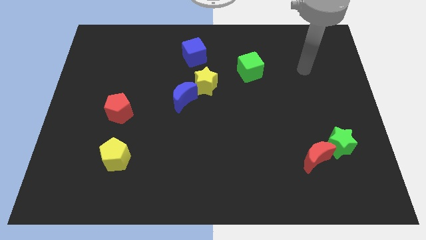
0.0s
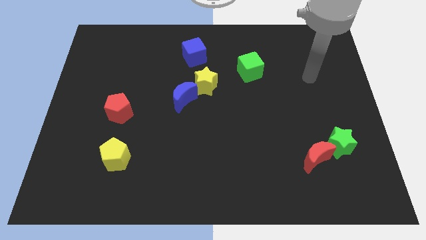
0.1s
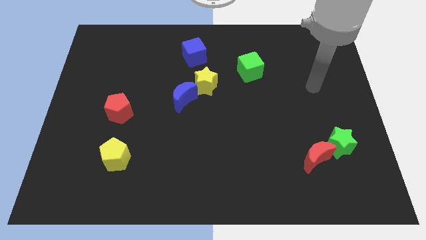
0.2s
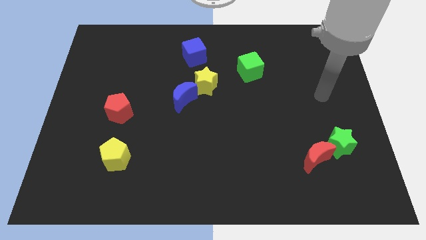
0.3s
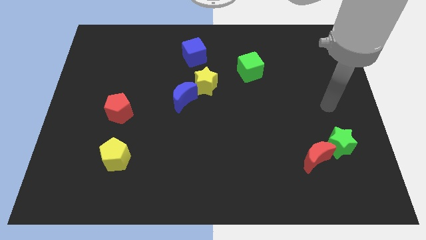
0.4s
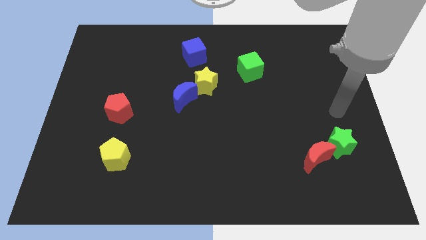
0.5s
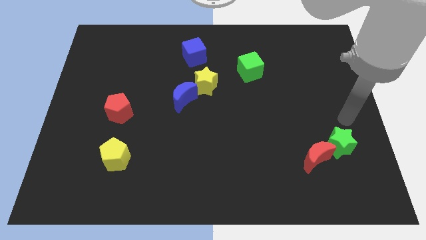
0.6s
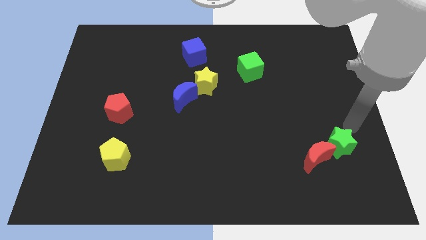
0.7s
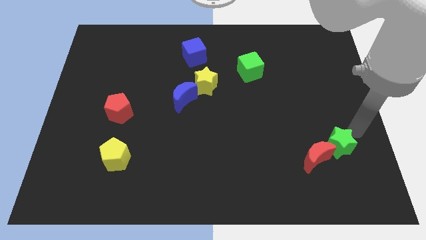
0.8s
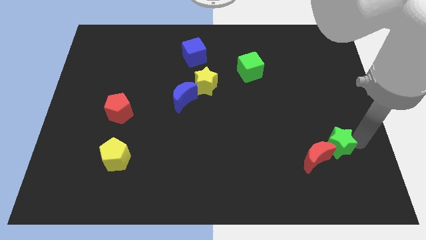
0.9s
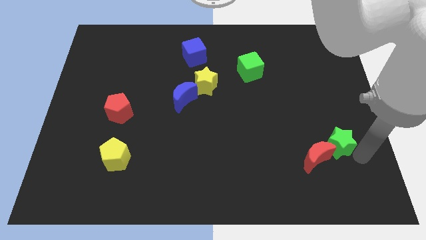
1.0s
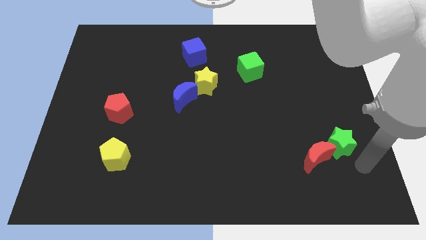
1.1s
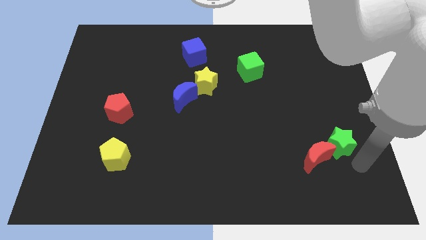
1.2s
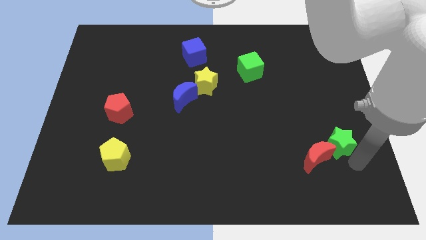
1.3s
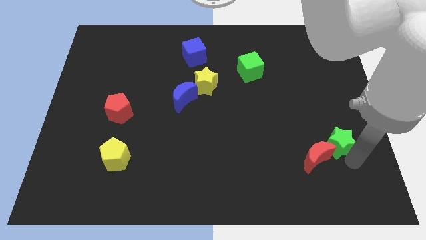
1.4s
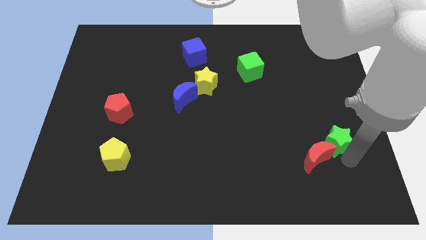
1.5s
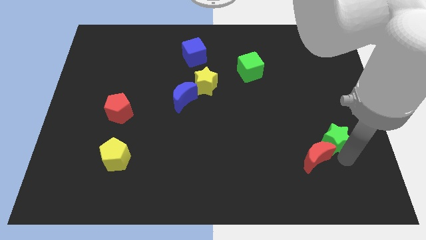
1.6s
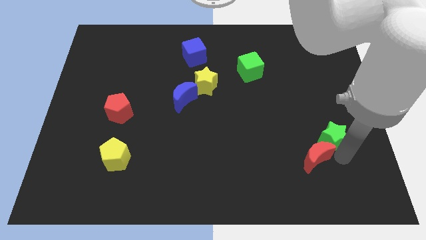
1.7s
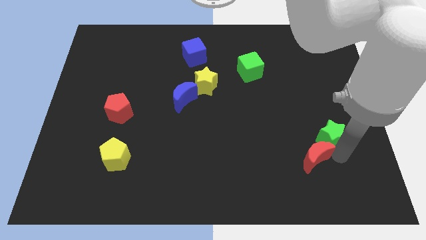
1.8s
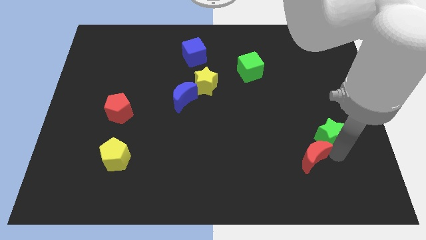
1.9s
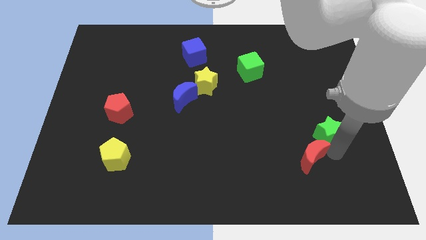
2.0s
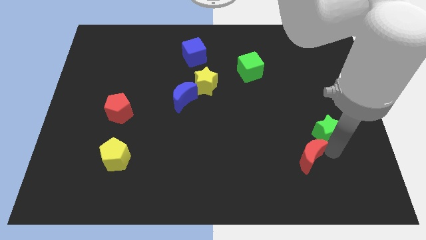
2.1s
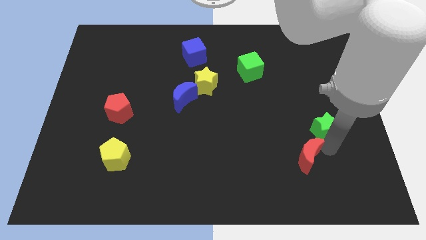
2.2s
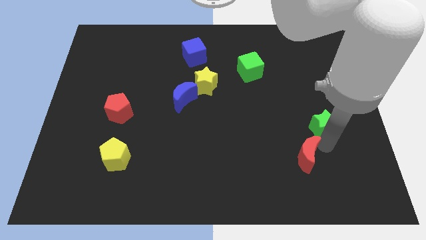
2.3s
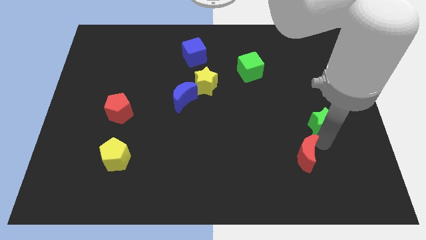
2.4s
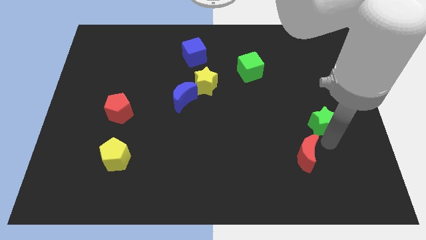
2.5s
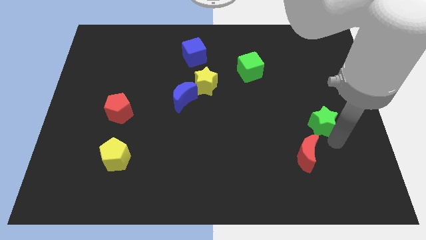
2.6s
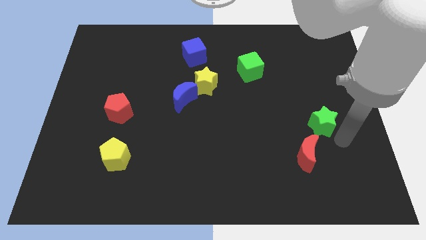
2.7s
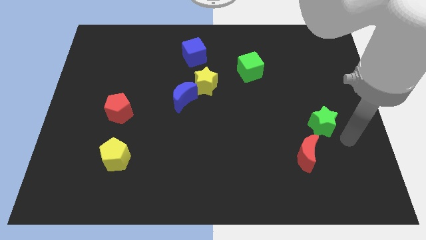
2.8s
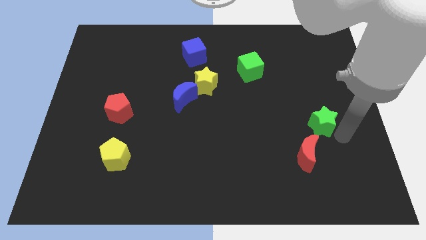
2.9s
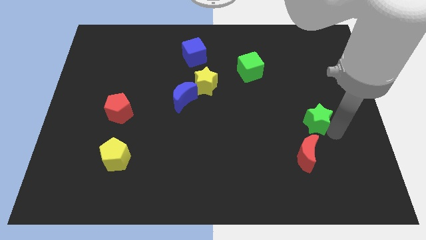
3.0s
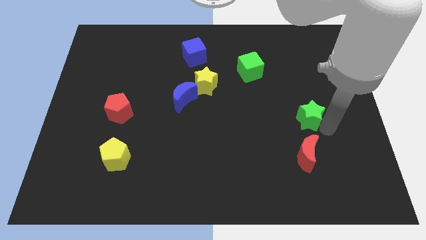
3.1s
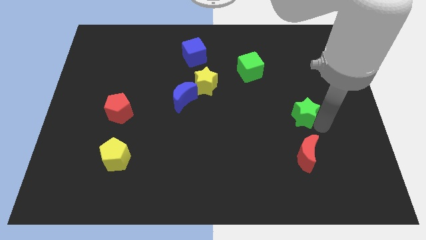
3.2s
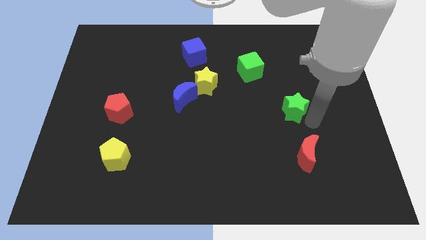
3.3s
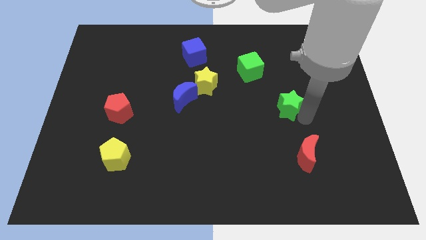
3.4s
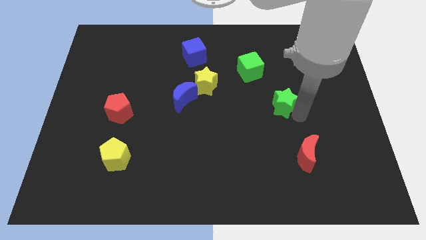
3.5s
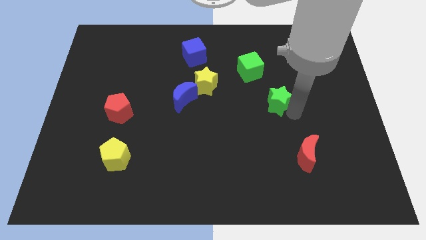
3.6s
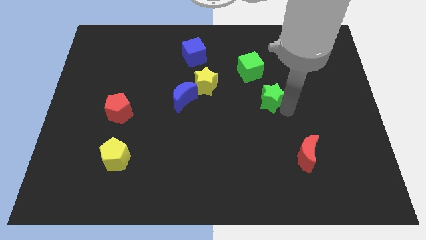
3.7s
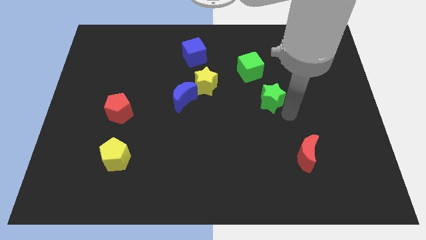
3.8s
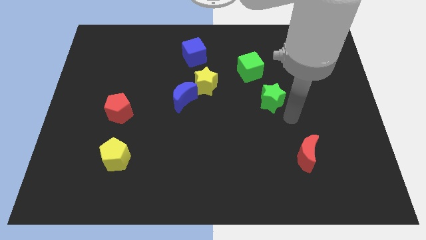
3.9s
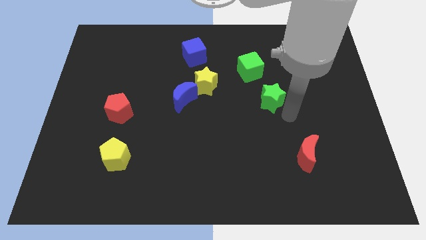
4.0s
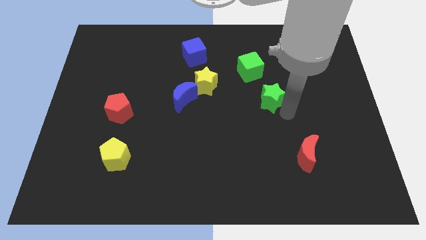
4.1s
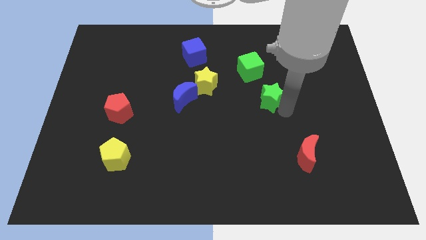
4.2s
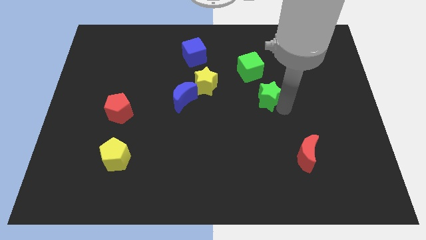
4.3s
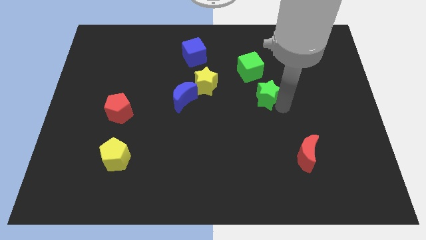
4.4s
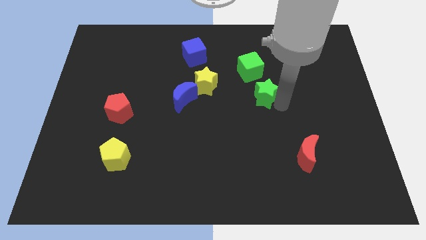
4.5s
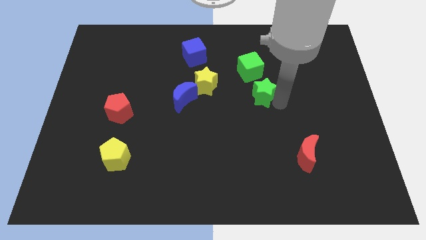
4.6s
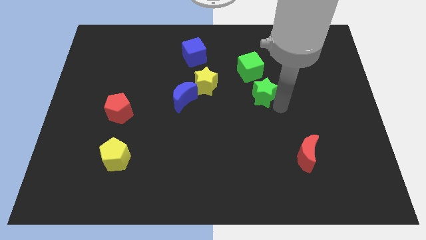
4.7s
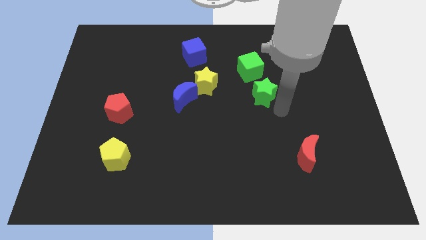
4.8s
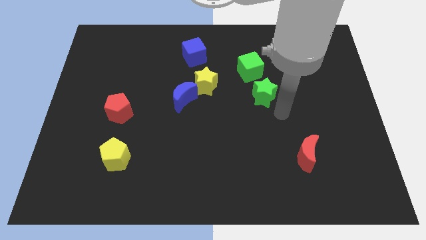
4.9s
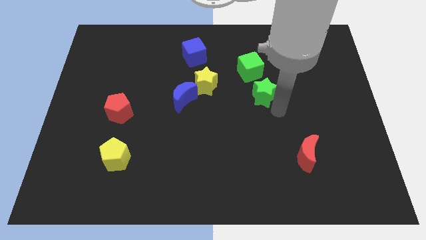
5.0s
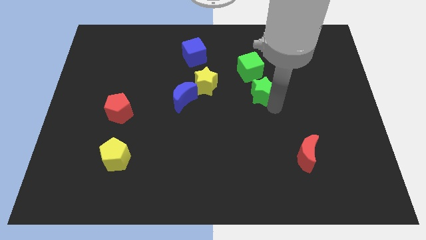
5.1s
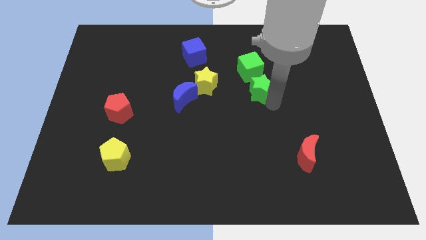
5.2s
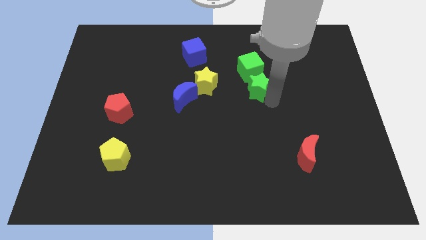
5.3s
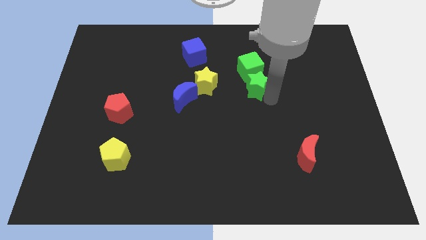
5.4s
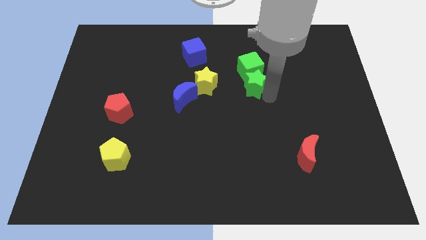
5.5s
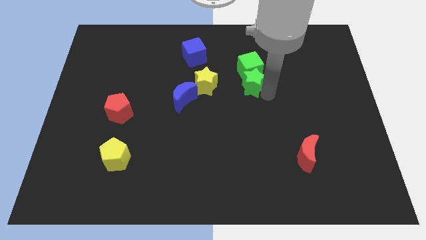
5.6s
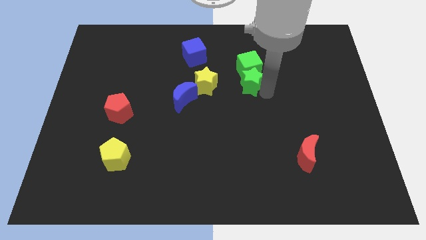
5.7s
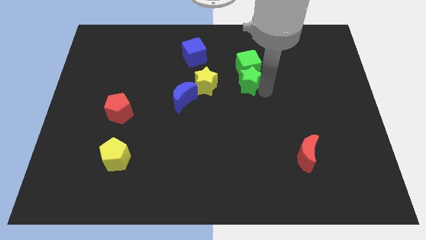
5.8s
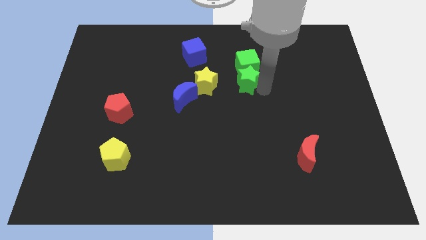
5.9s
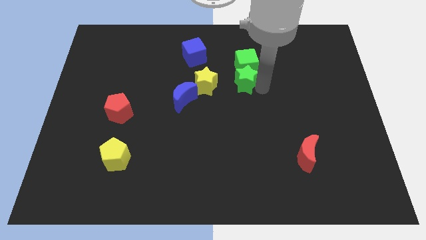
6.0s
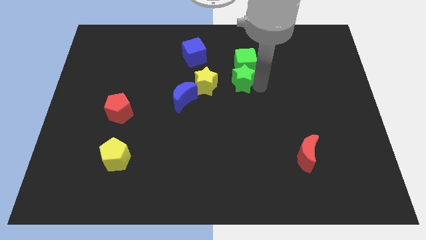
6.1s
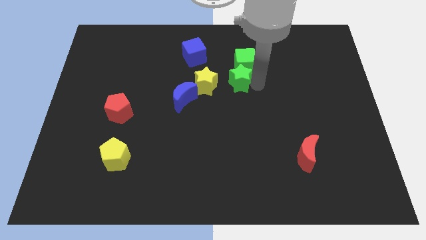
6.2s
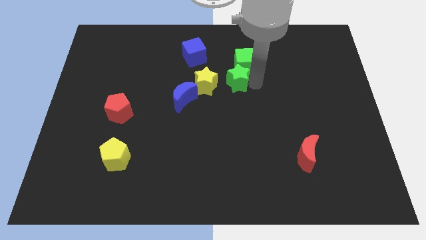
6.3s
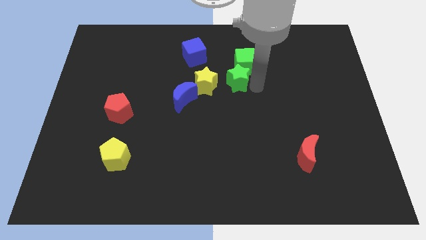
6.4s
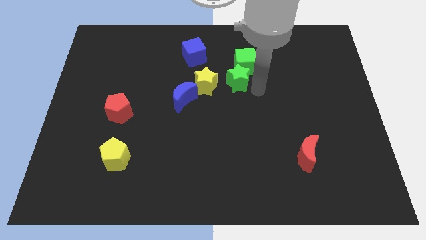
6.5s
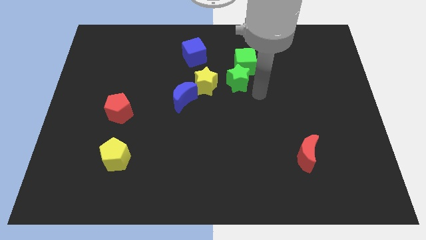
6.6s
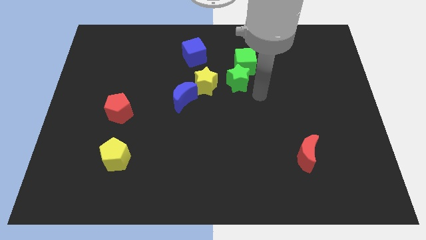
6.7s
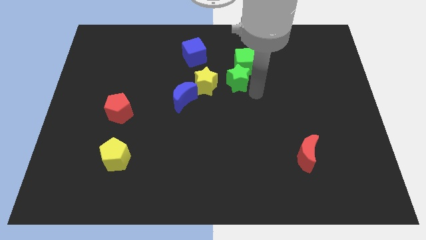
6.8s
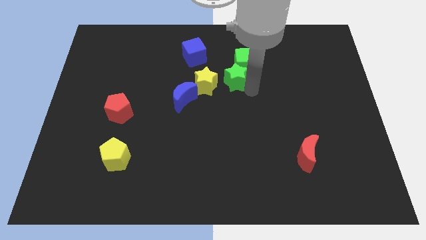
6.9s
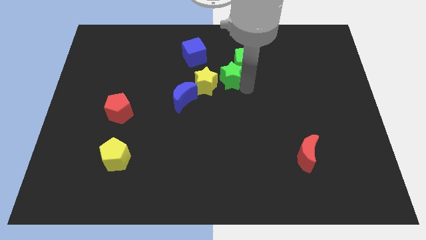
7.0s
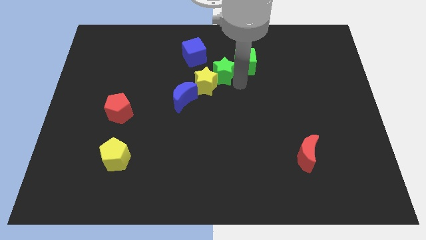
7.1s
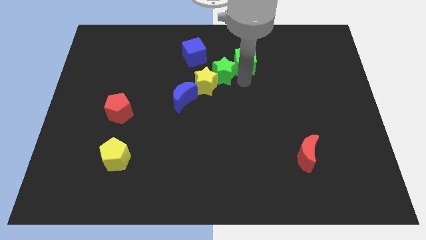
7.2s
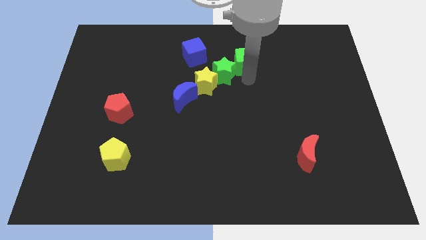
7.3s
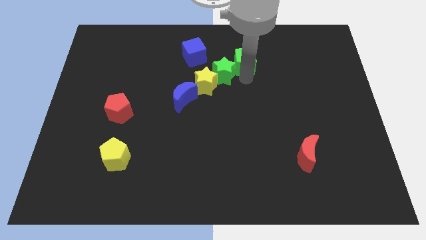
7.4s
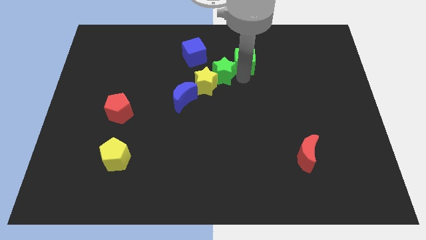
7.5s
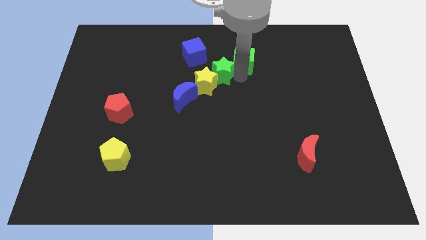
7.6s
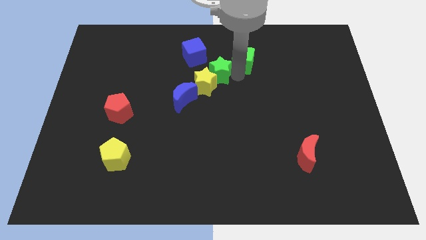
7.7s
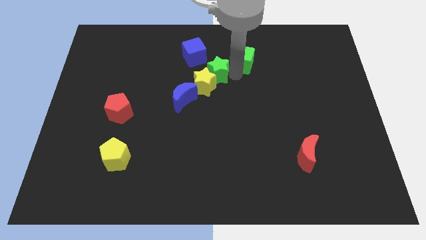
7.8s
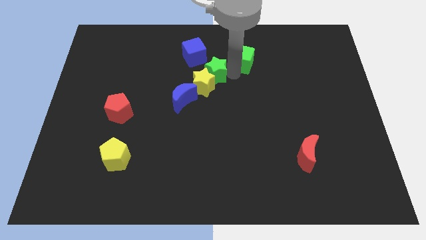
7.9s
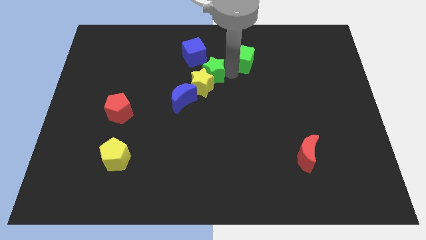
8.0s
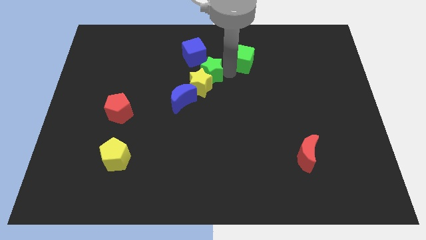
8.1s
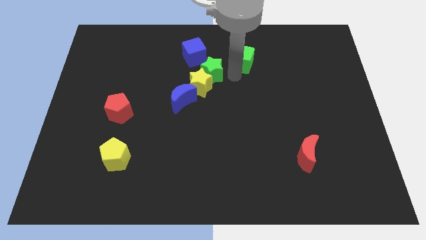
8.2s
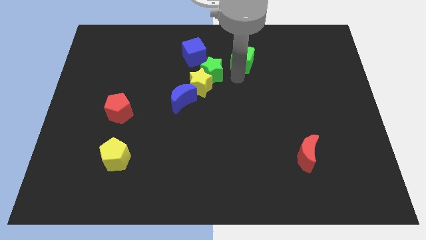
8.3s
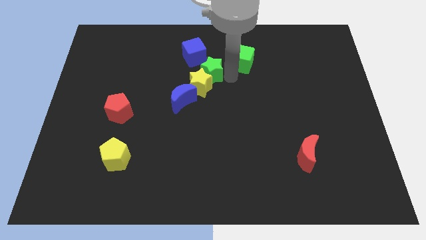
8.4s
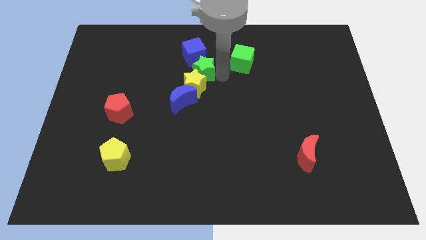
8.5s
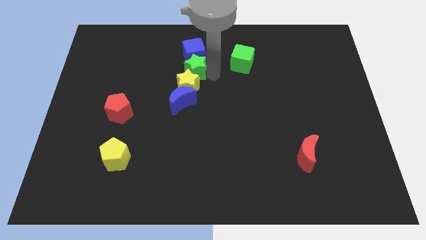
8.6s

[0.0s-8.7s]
move the green star to the bottom left of the blue cube
